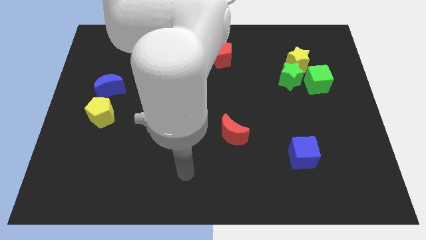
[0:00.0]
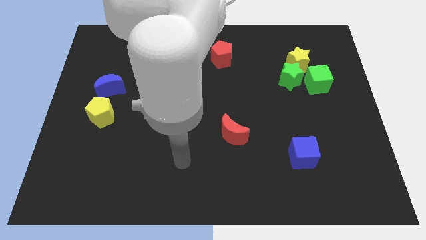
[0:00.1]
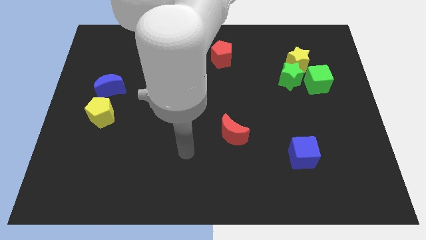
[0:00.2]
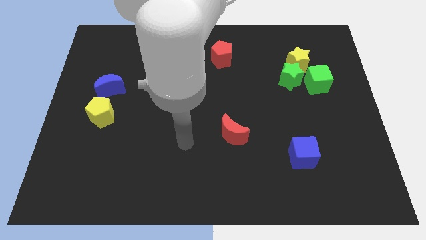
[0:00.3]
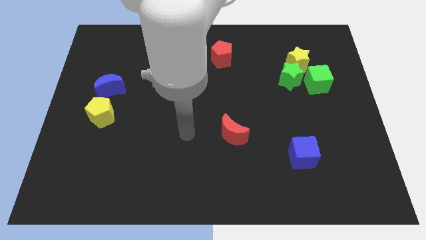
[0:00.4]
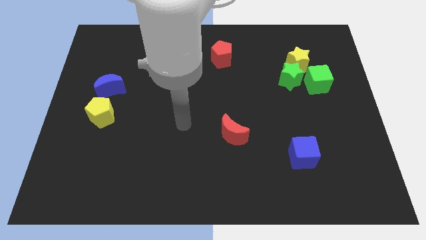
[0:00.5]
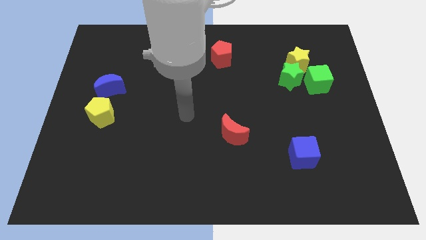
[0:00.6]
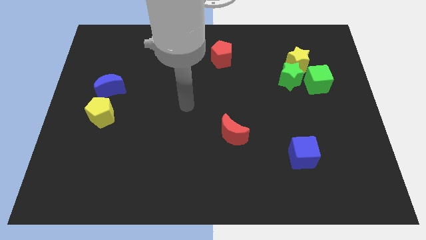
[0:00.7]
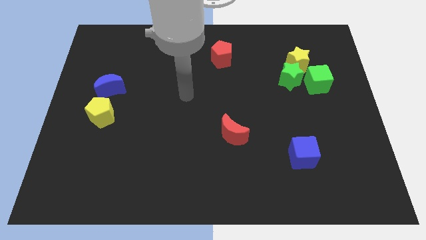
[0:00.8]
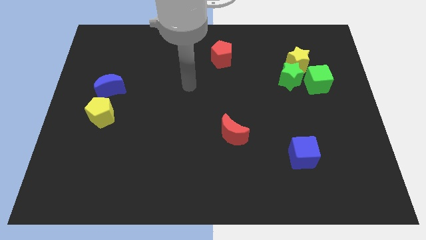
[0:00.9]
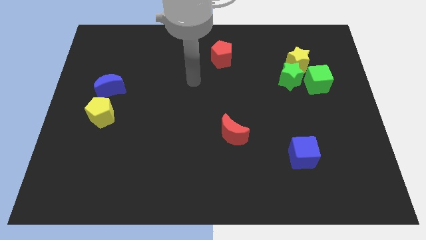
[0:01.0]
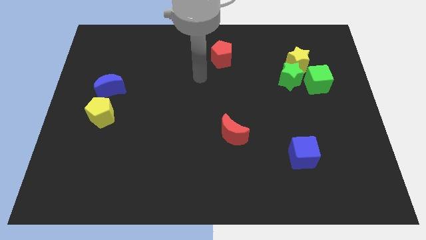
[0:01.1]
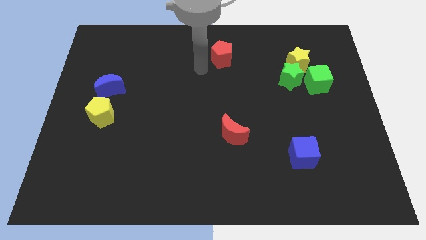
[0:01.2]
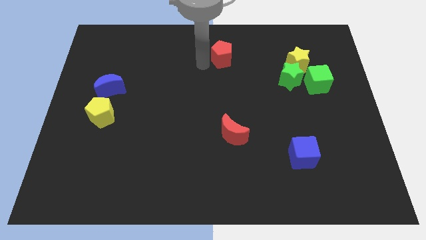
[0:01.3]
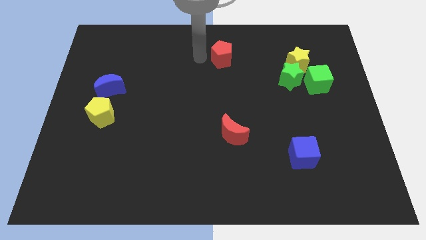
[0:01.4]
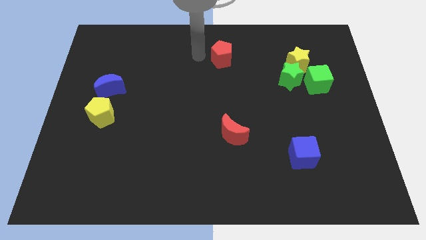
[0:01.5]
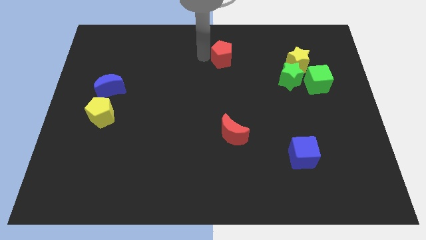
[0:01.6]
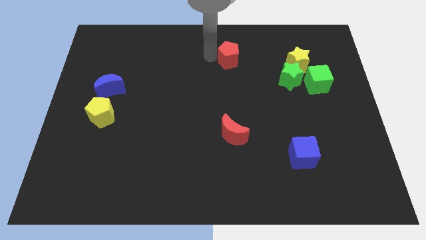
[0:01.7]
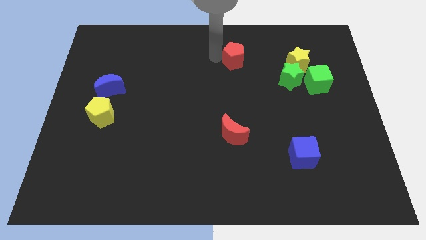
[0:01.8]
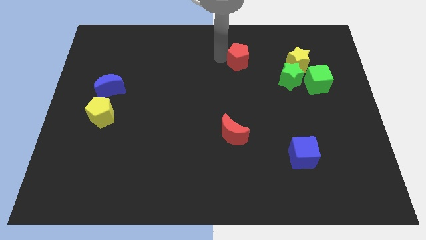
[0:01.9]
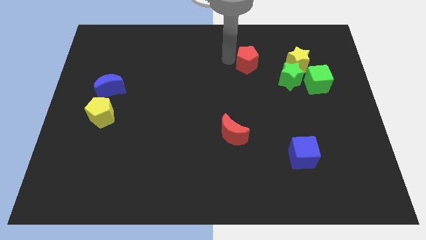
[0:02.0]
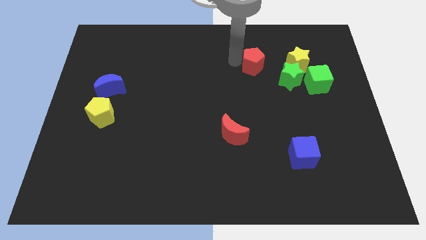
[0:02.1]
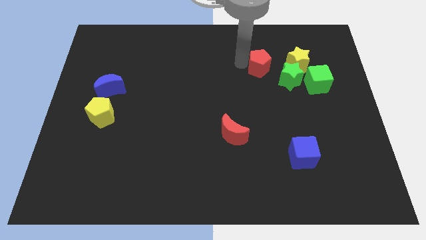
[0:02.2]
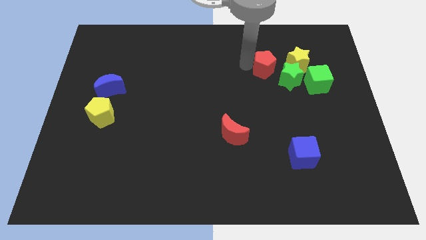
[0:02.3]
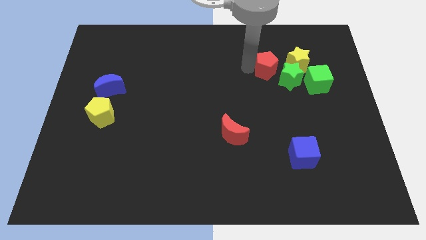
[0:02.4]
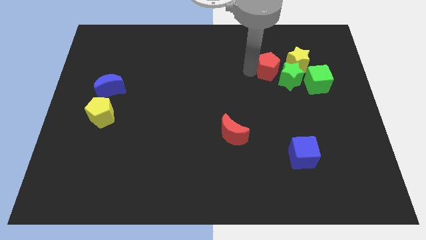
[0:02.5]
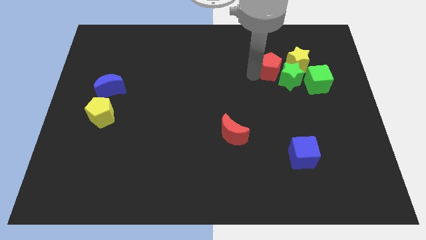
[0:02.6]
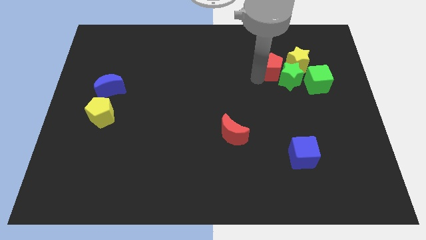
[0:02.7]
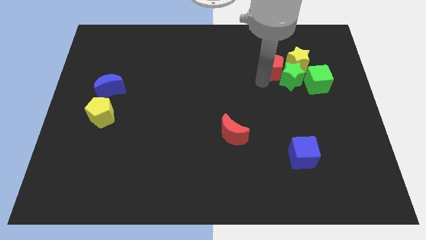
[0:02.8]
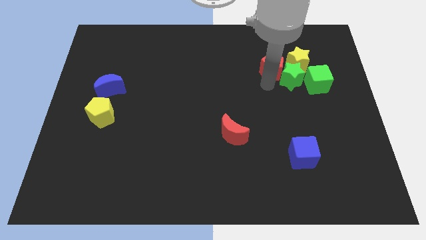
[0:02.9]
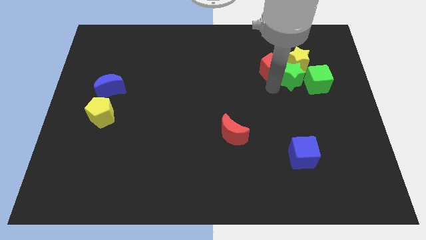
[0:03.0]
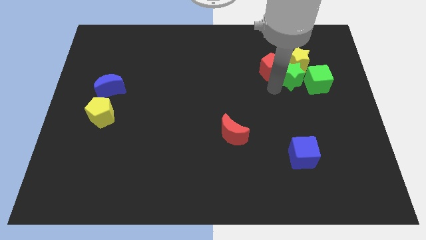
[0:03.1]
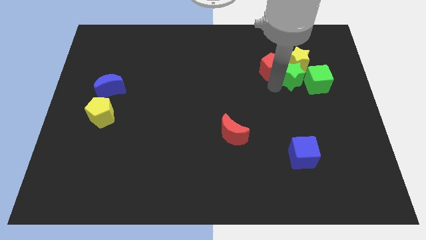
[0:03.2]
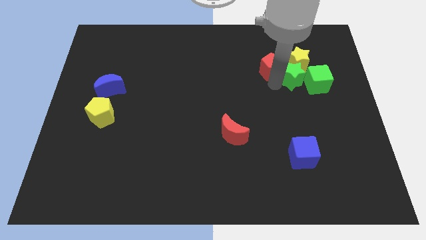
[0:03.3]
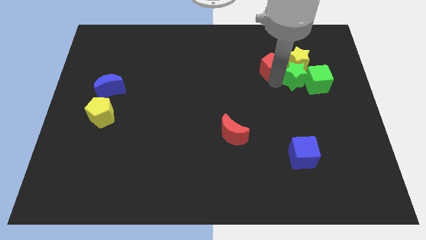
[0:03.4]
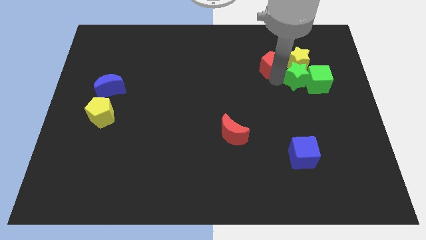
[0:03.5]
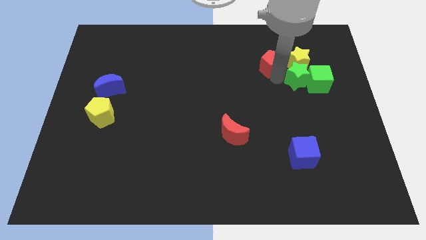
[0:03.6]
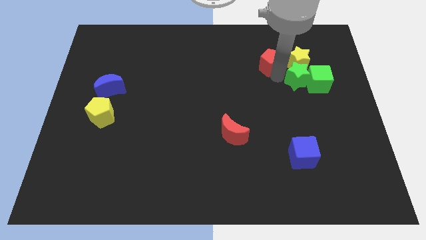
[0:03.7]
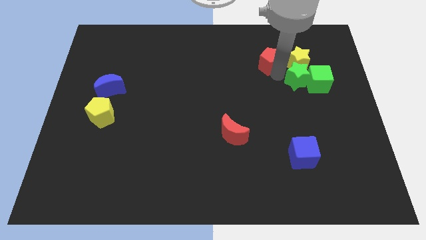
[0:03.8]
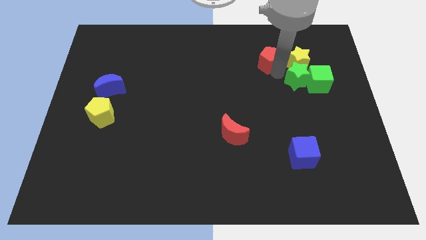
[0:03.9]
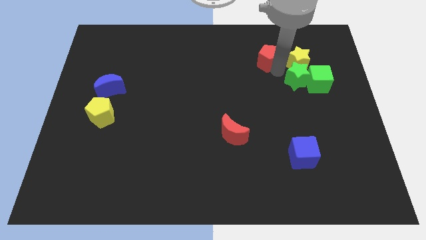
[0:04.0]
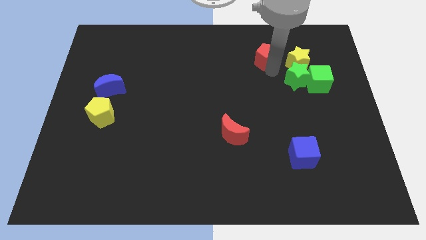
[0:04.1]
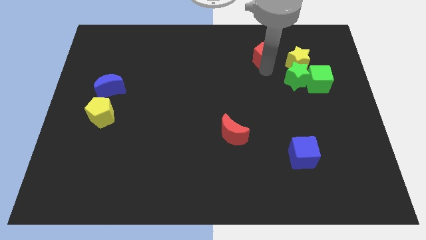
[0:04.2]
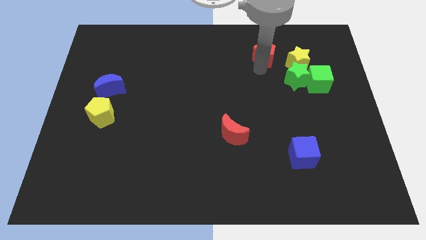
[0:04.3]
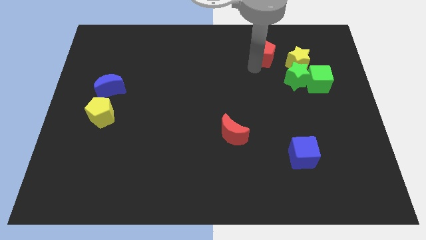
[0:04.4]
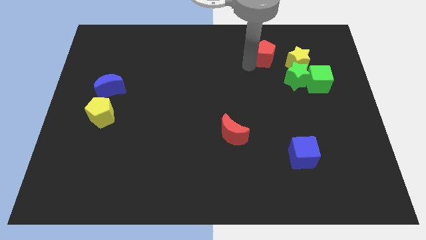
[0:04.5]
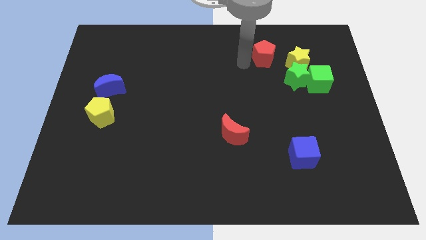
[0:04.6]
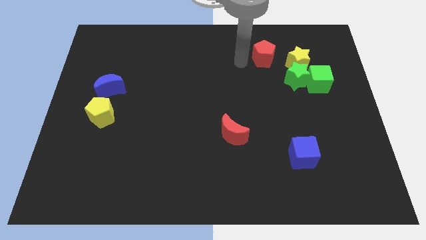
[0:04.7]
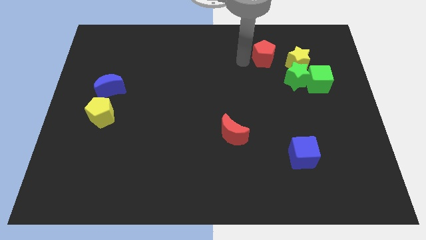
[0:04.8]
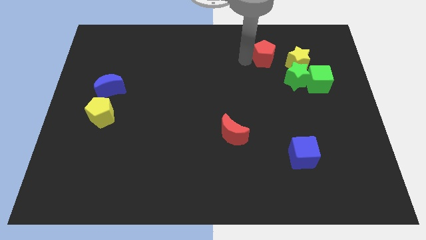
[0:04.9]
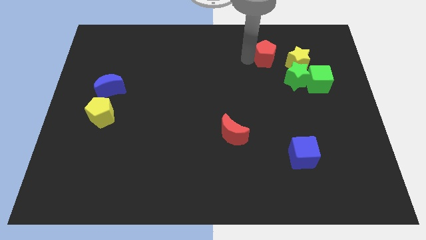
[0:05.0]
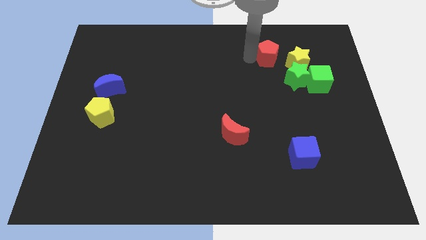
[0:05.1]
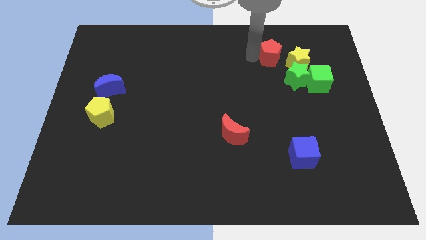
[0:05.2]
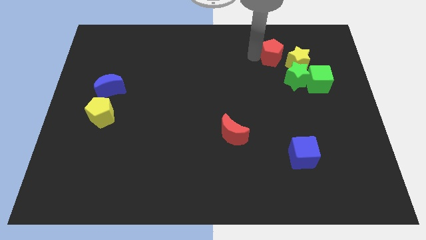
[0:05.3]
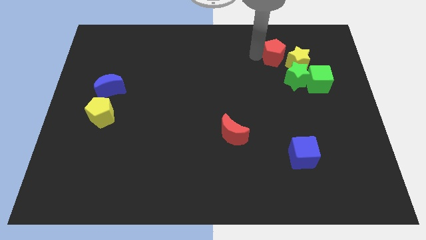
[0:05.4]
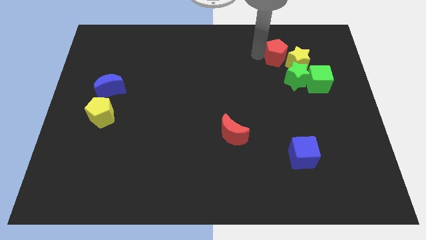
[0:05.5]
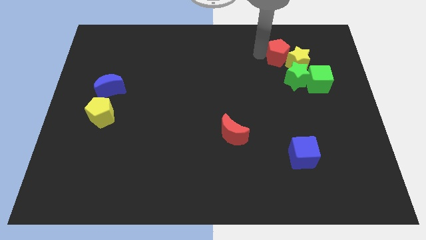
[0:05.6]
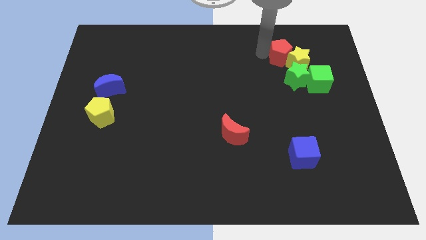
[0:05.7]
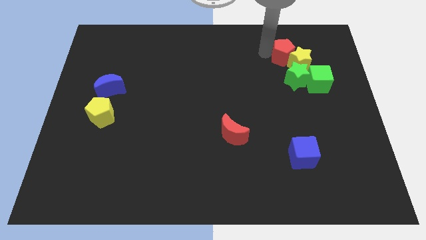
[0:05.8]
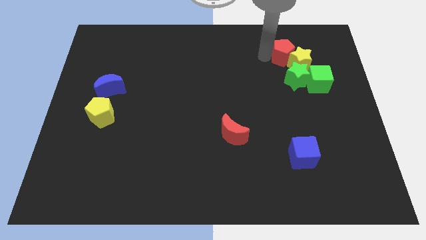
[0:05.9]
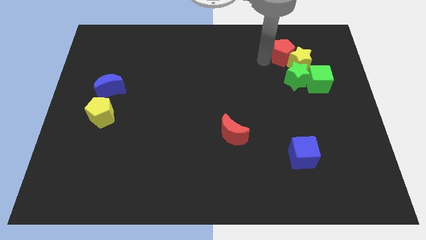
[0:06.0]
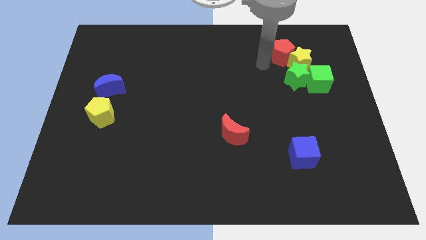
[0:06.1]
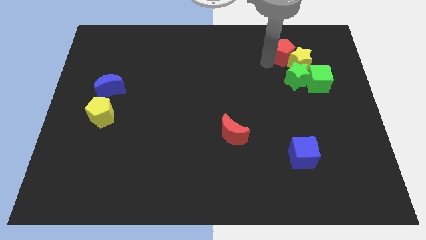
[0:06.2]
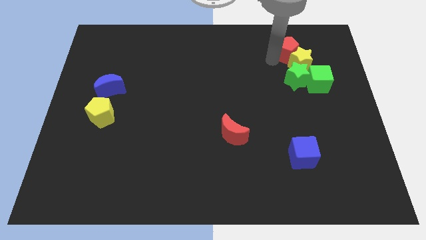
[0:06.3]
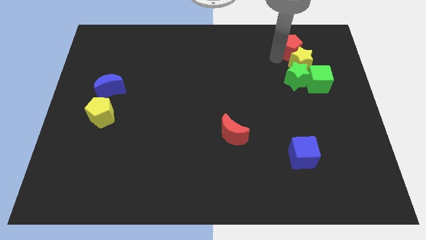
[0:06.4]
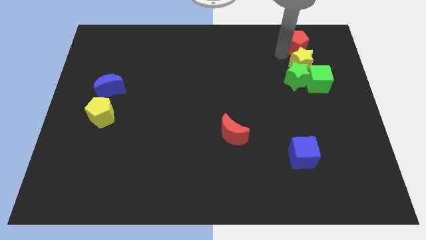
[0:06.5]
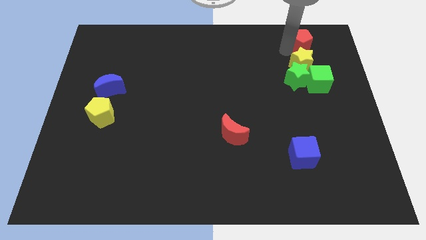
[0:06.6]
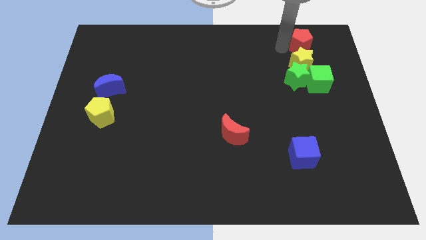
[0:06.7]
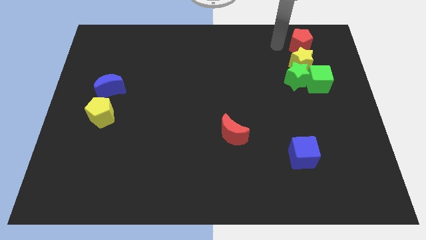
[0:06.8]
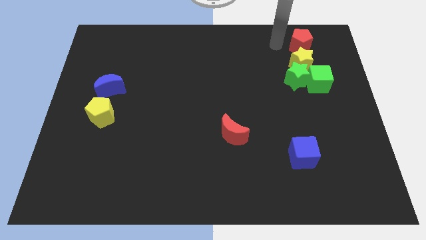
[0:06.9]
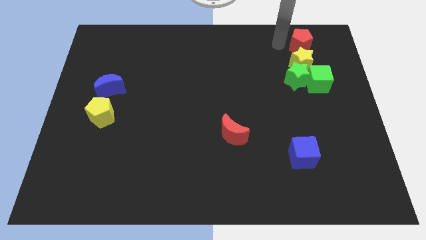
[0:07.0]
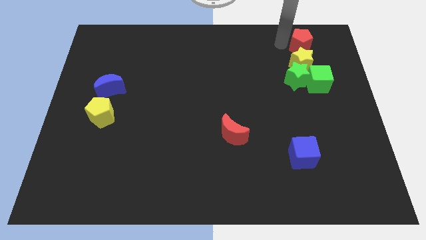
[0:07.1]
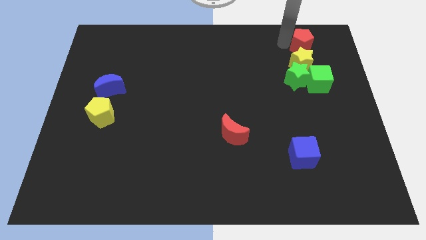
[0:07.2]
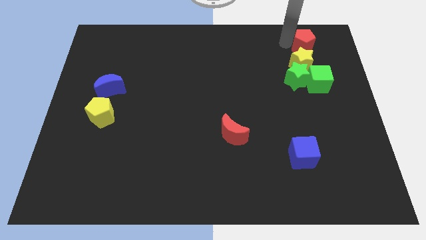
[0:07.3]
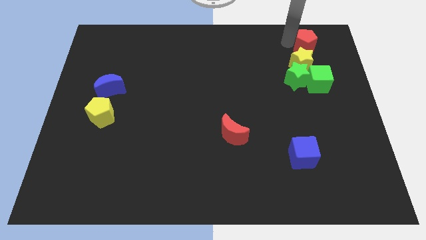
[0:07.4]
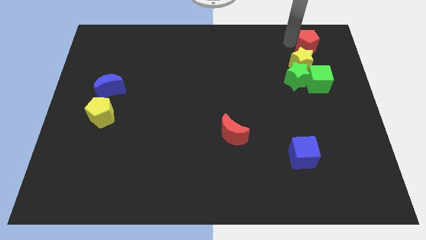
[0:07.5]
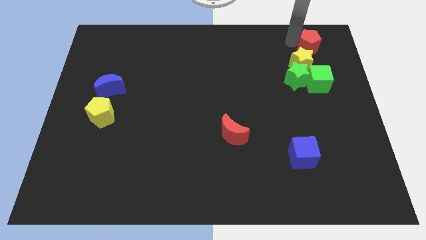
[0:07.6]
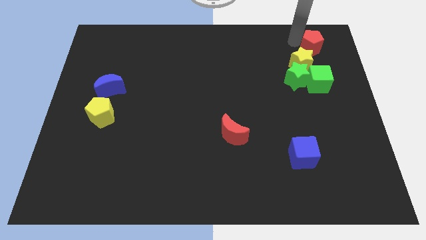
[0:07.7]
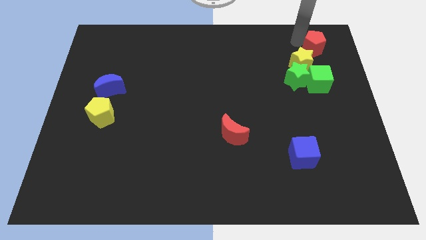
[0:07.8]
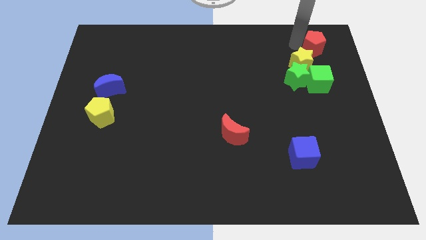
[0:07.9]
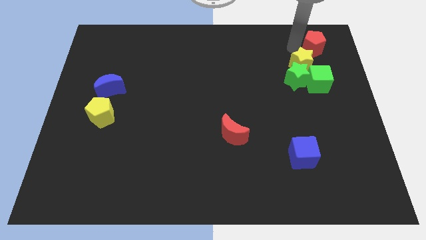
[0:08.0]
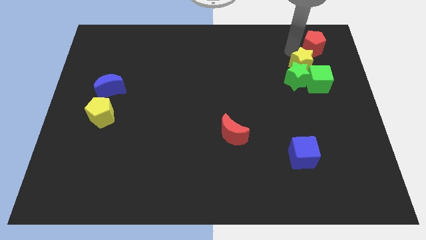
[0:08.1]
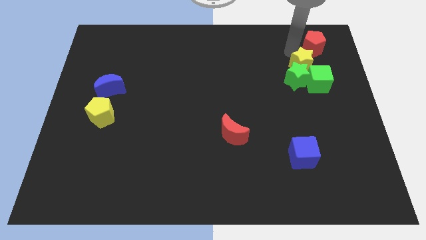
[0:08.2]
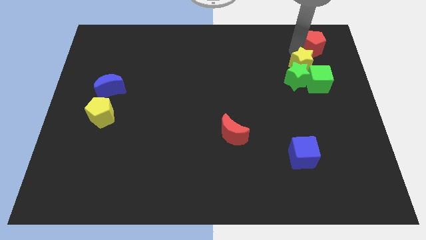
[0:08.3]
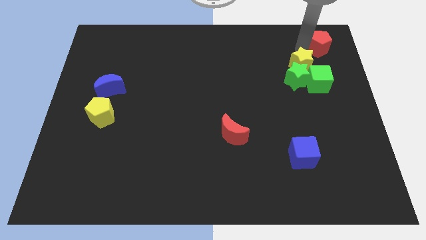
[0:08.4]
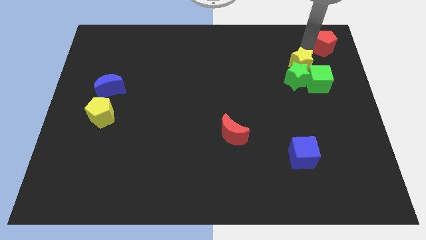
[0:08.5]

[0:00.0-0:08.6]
push the red pentagon to the top right
